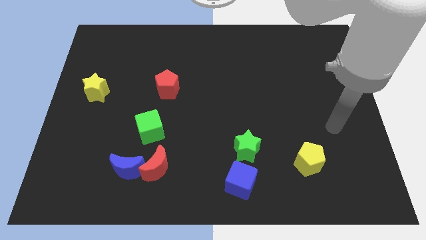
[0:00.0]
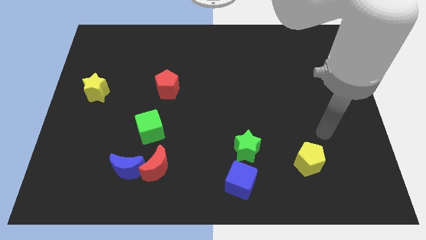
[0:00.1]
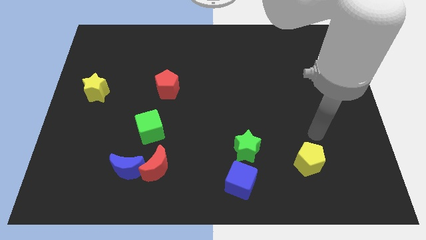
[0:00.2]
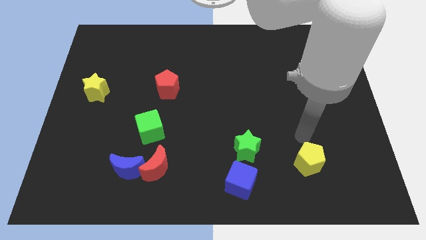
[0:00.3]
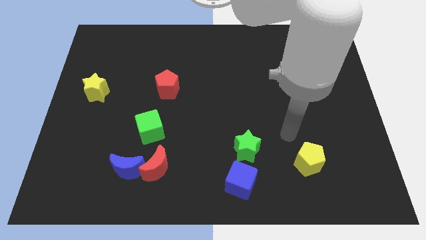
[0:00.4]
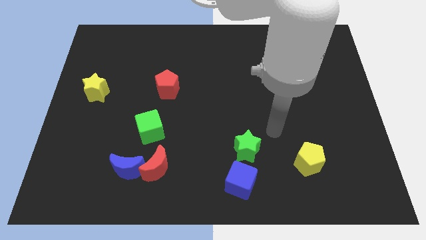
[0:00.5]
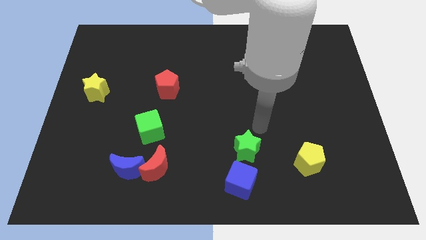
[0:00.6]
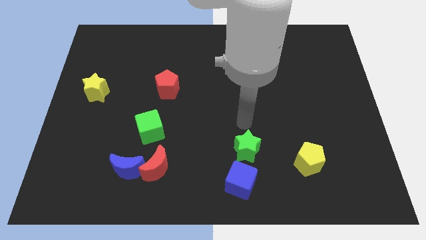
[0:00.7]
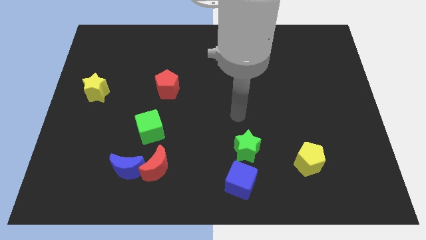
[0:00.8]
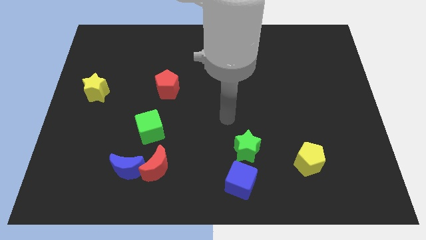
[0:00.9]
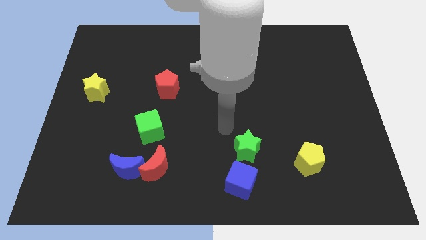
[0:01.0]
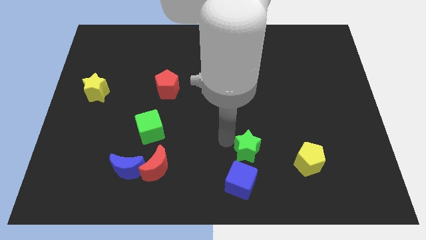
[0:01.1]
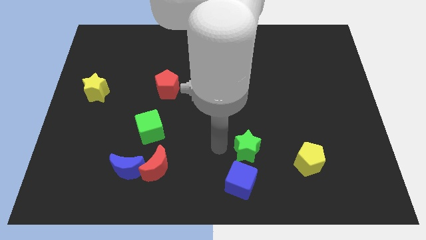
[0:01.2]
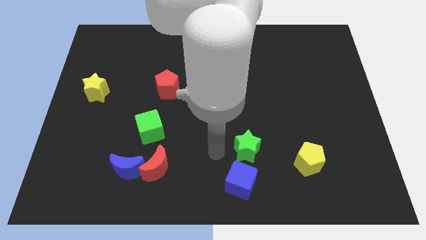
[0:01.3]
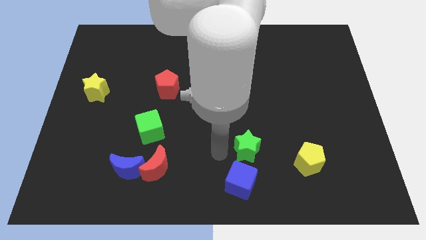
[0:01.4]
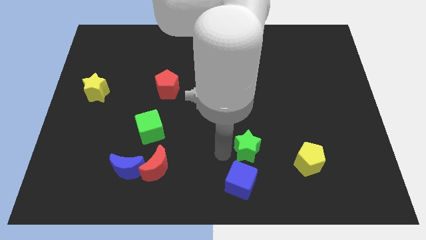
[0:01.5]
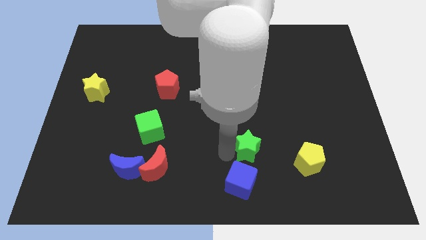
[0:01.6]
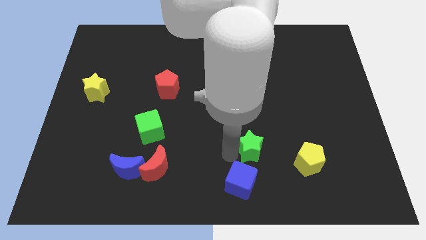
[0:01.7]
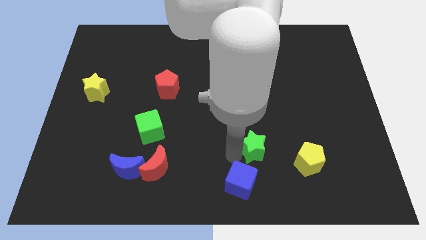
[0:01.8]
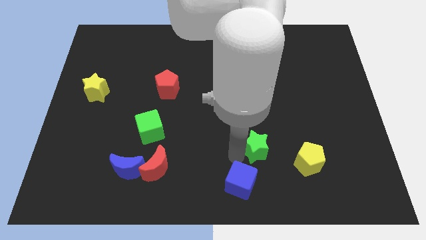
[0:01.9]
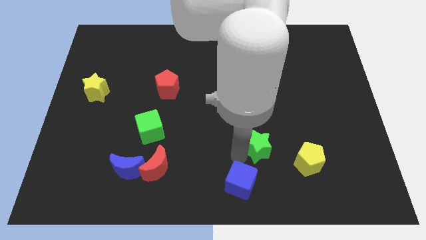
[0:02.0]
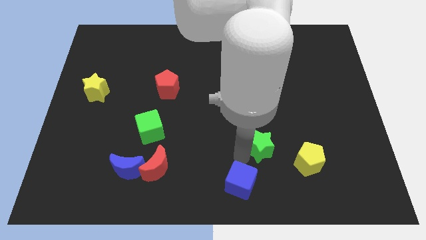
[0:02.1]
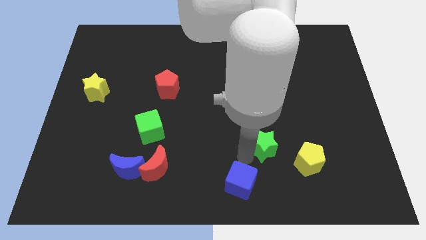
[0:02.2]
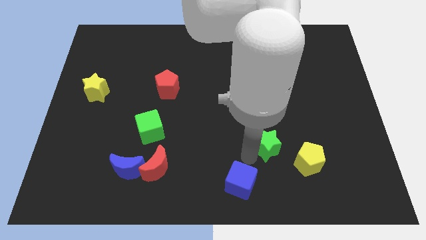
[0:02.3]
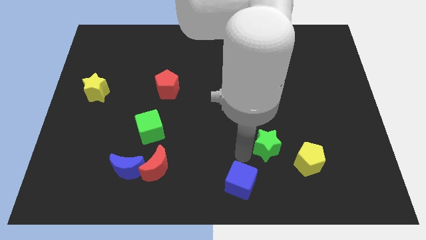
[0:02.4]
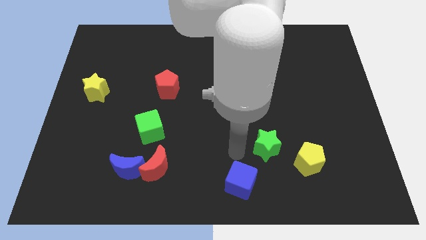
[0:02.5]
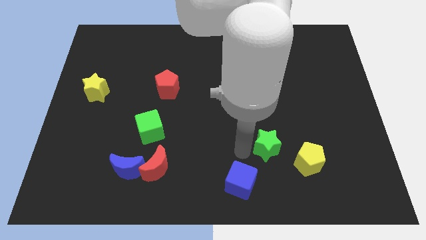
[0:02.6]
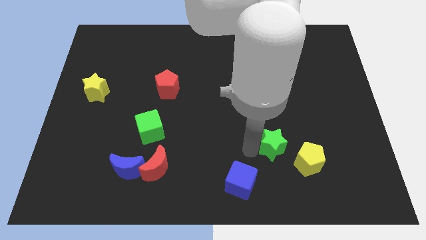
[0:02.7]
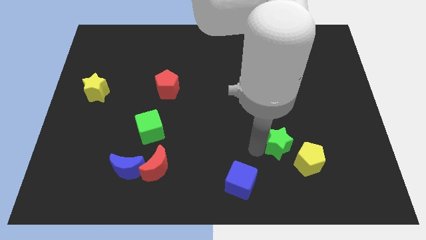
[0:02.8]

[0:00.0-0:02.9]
slightly push the green star to the right

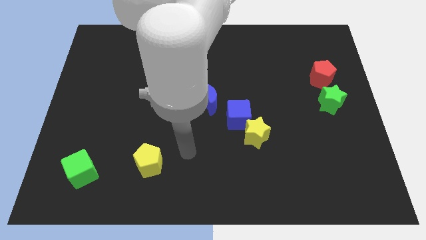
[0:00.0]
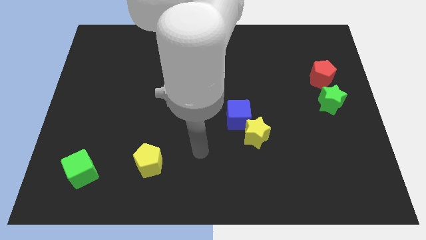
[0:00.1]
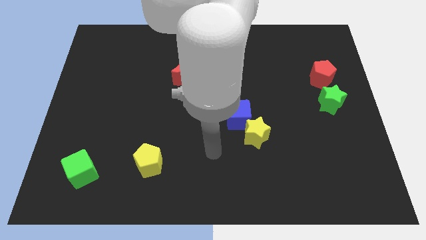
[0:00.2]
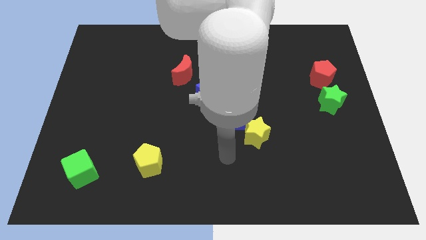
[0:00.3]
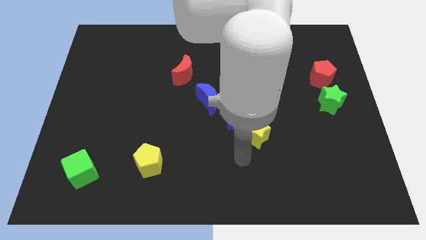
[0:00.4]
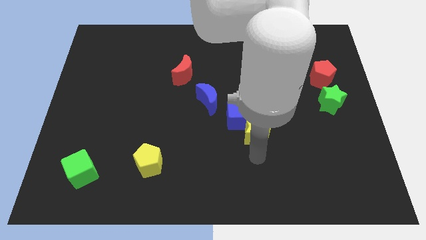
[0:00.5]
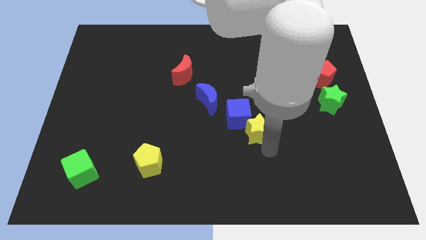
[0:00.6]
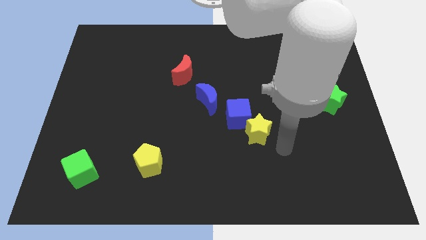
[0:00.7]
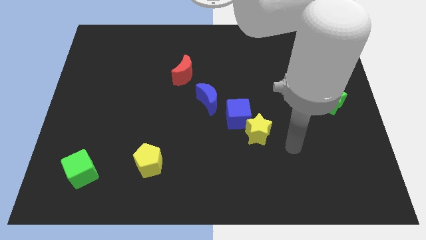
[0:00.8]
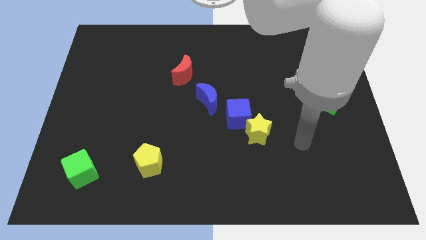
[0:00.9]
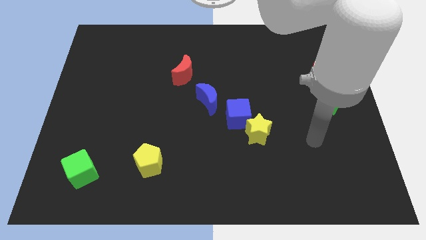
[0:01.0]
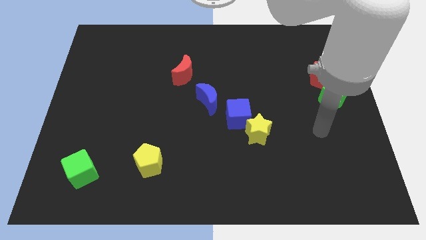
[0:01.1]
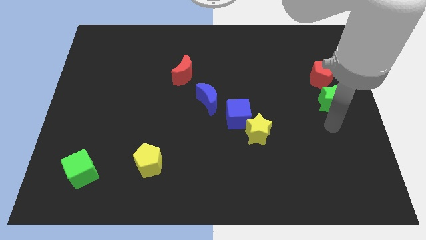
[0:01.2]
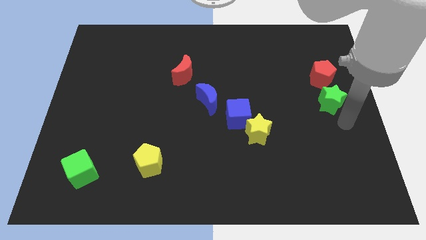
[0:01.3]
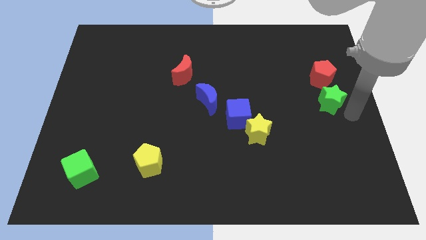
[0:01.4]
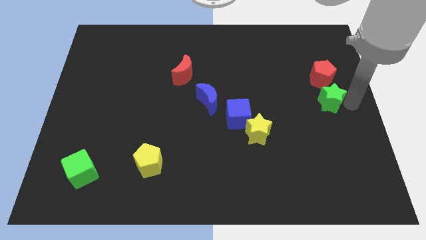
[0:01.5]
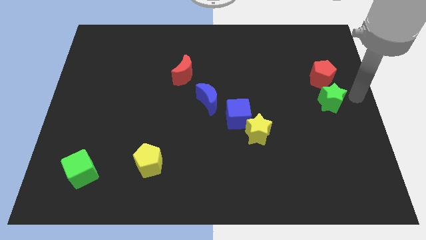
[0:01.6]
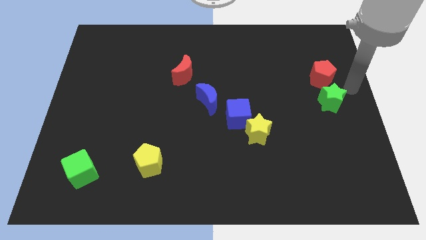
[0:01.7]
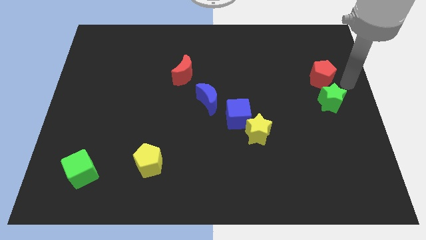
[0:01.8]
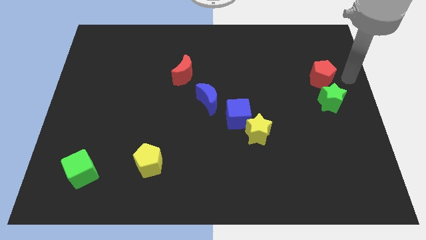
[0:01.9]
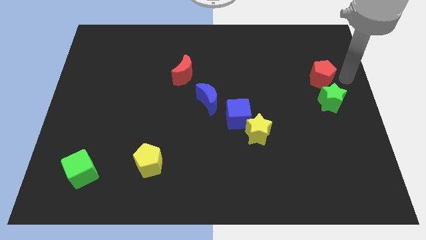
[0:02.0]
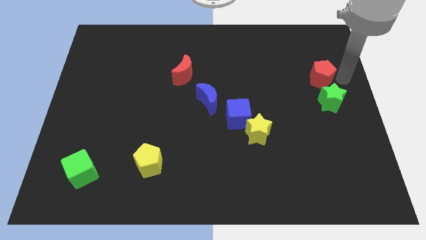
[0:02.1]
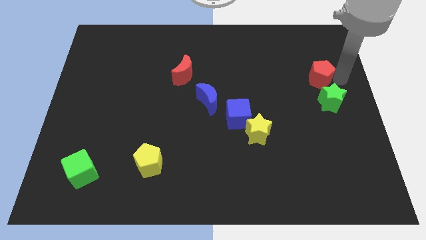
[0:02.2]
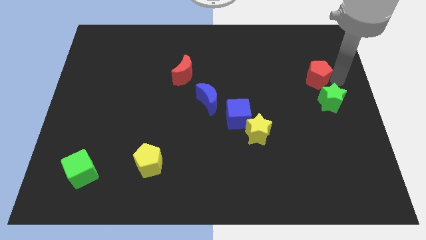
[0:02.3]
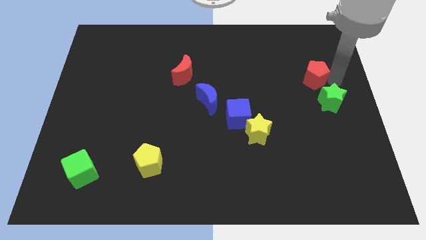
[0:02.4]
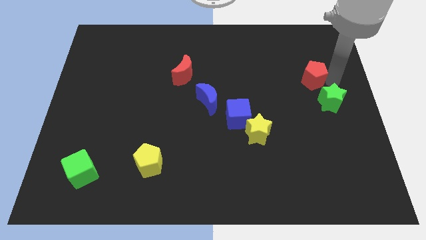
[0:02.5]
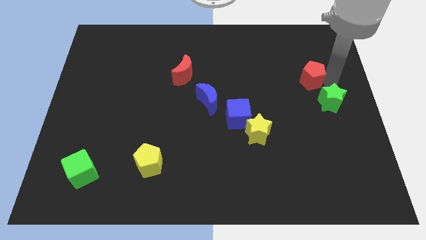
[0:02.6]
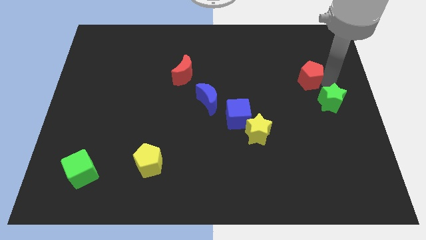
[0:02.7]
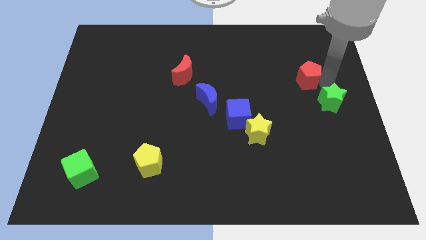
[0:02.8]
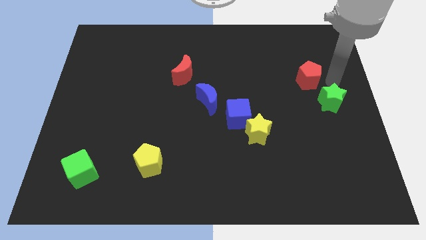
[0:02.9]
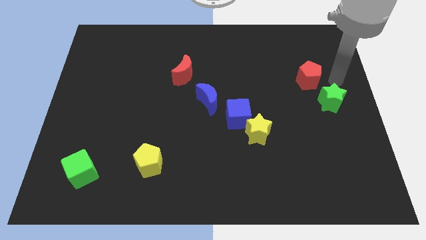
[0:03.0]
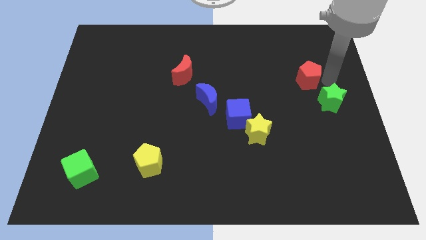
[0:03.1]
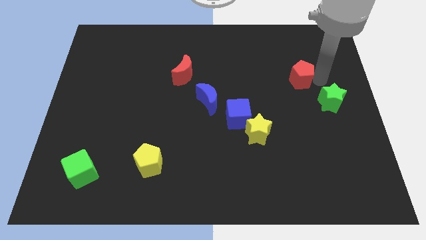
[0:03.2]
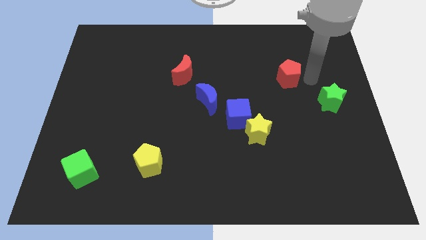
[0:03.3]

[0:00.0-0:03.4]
move the red pentagon a little to the left

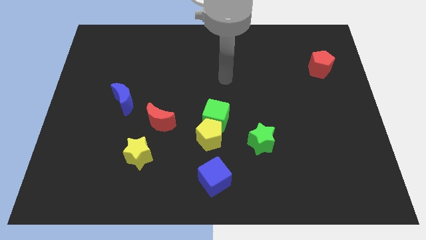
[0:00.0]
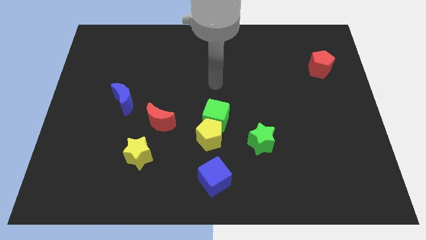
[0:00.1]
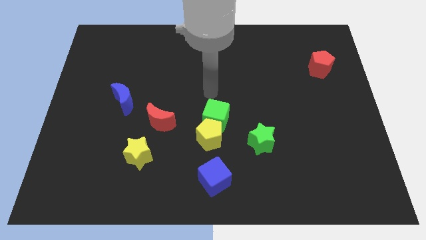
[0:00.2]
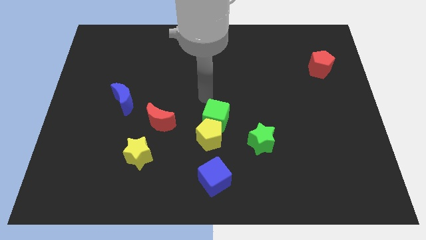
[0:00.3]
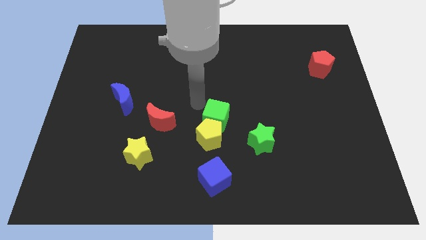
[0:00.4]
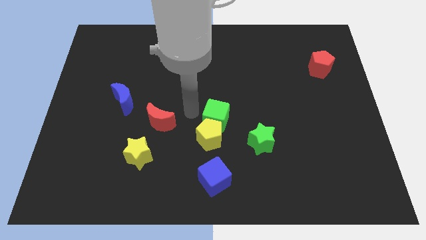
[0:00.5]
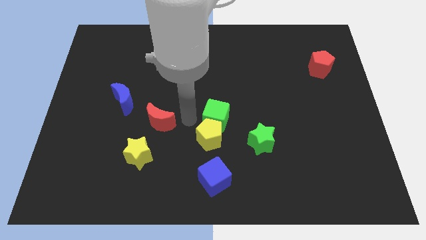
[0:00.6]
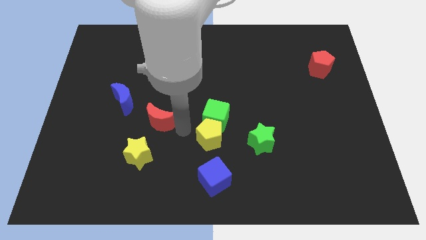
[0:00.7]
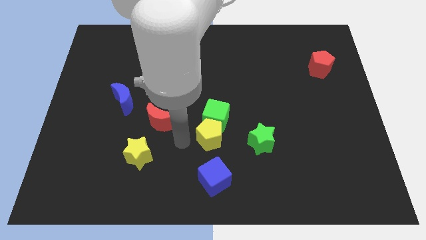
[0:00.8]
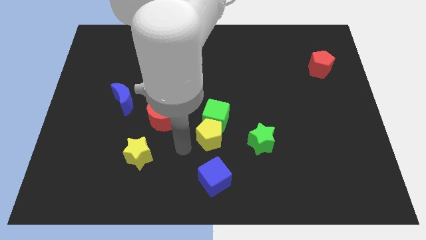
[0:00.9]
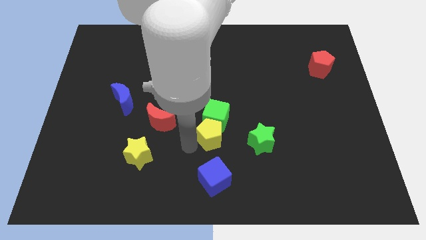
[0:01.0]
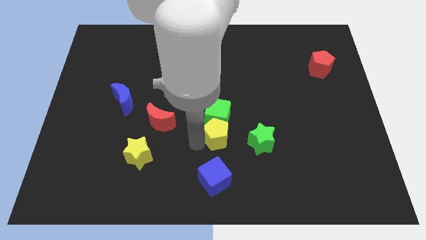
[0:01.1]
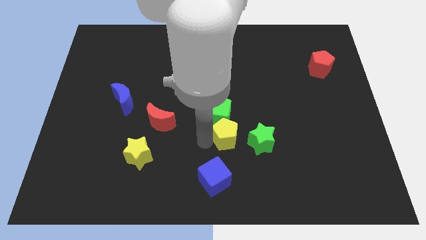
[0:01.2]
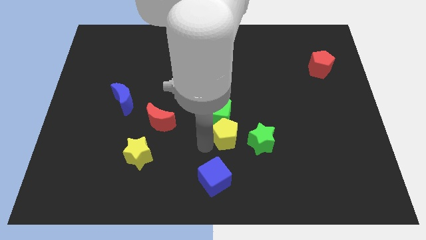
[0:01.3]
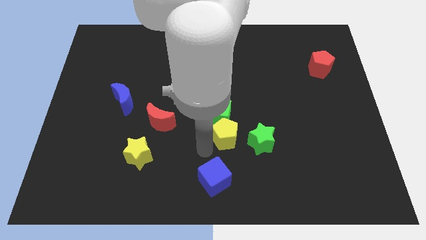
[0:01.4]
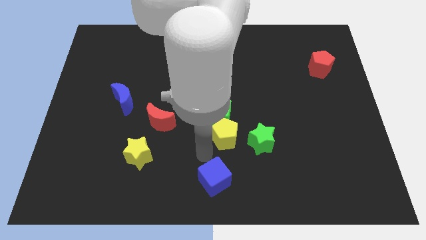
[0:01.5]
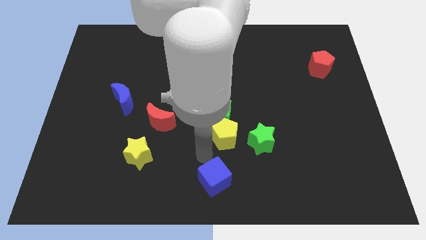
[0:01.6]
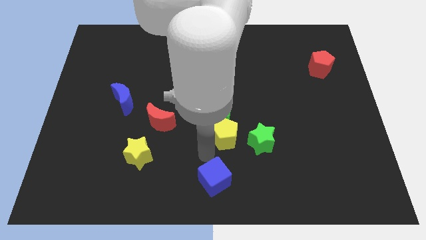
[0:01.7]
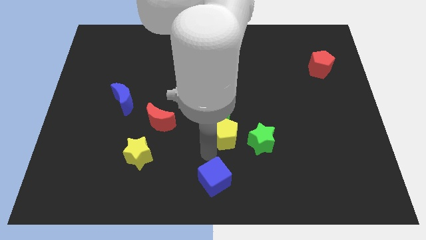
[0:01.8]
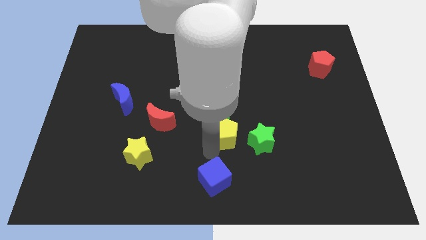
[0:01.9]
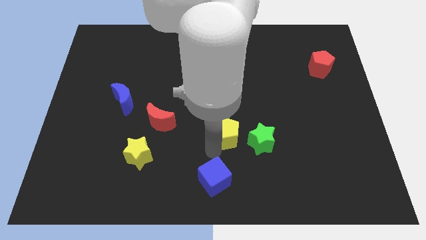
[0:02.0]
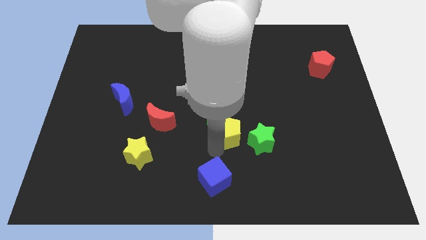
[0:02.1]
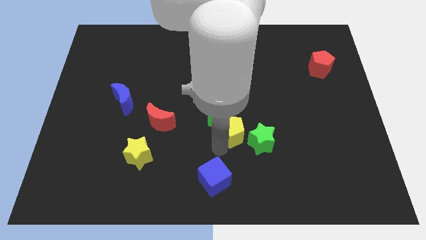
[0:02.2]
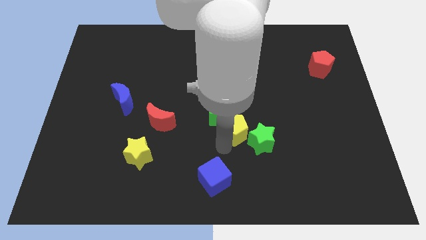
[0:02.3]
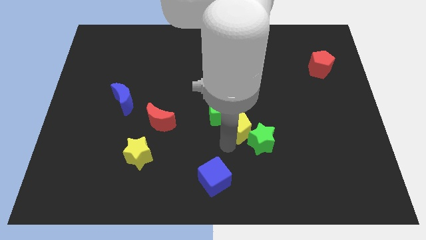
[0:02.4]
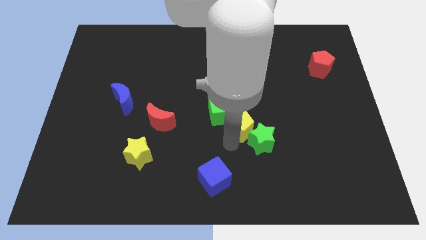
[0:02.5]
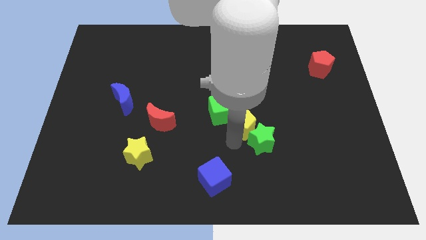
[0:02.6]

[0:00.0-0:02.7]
slide the yellow pentagon a bit diagonally upwards and to the right
